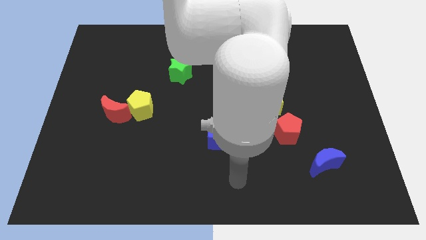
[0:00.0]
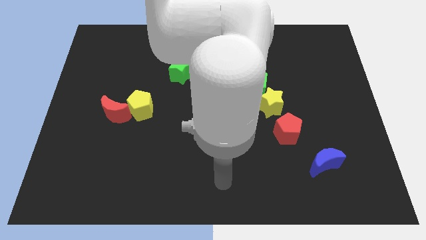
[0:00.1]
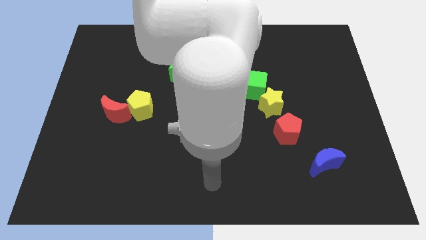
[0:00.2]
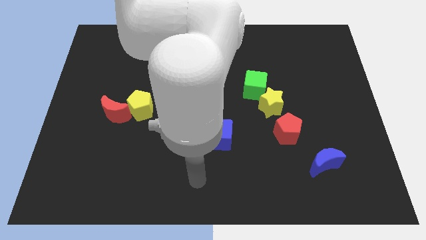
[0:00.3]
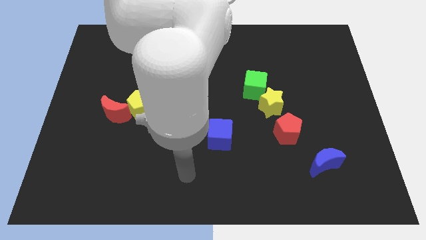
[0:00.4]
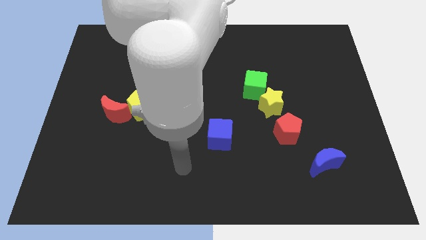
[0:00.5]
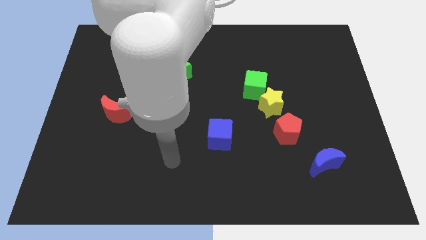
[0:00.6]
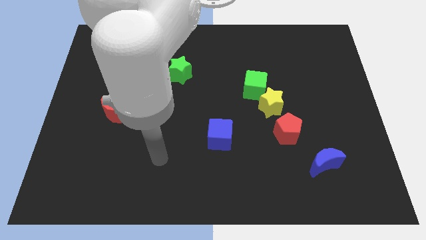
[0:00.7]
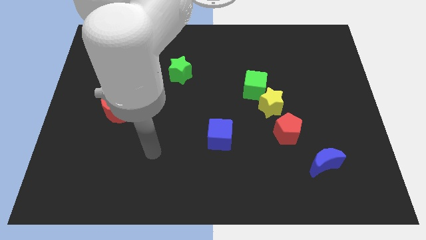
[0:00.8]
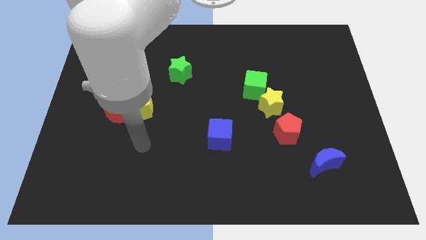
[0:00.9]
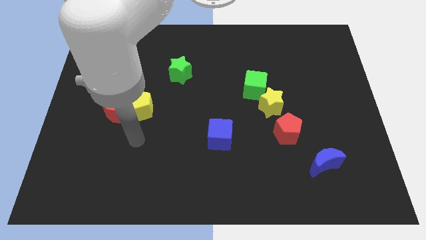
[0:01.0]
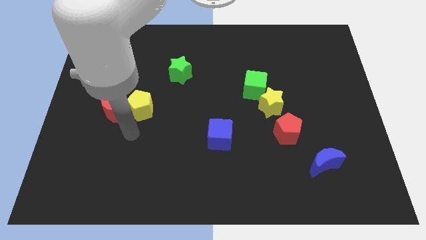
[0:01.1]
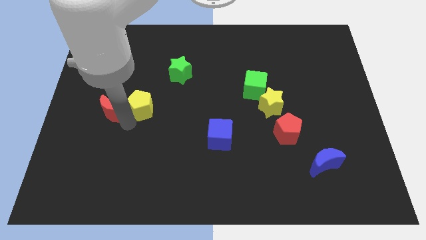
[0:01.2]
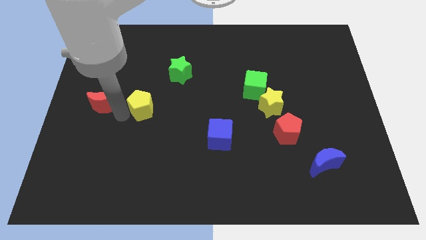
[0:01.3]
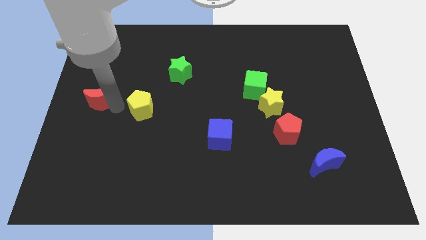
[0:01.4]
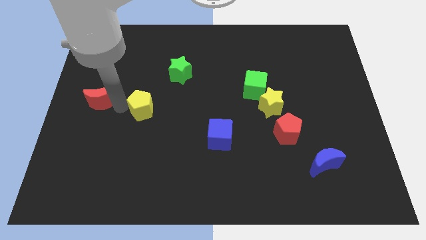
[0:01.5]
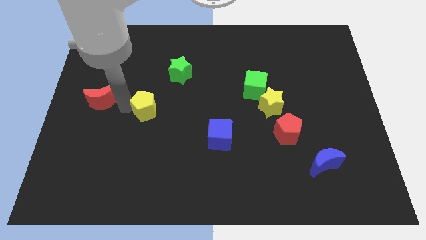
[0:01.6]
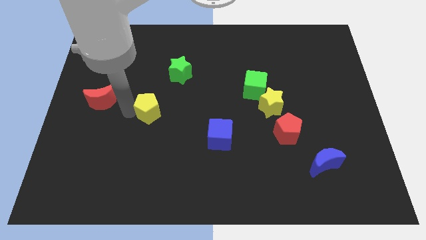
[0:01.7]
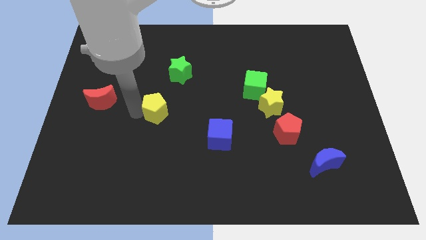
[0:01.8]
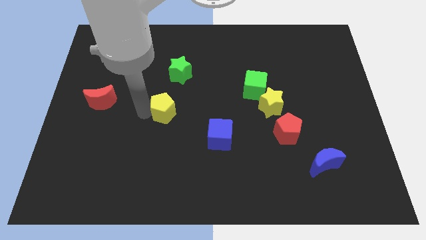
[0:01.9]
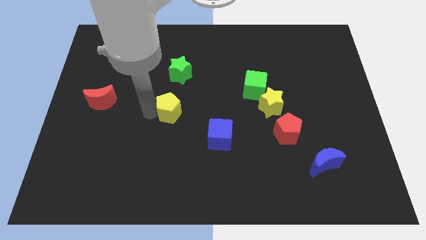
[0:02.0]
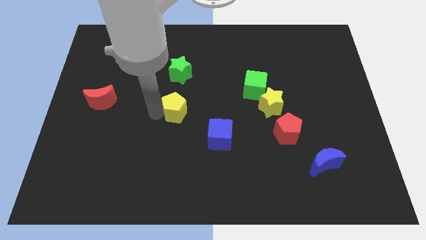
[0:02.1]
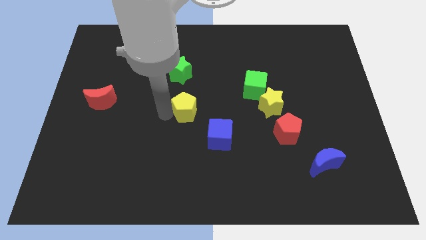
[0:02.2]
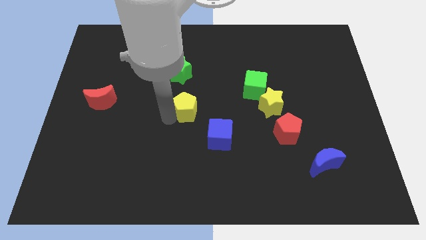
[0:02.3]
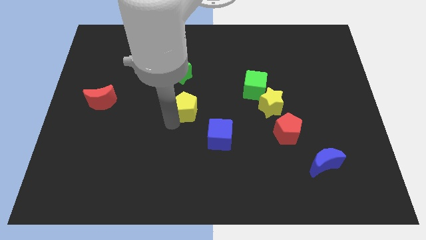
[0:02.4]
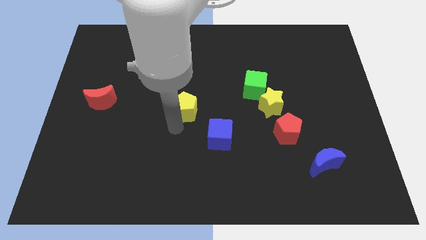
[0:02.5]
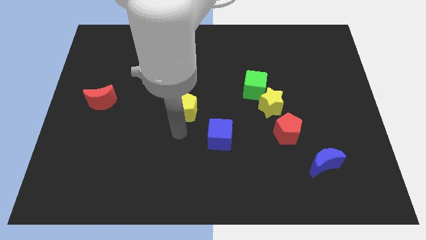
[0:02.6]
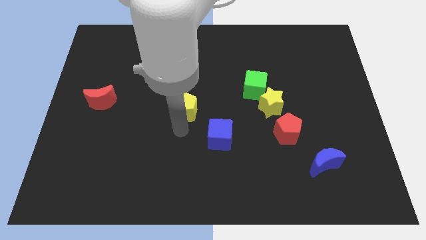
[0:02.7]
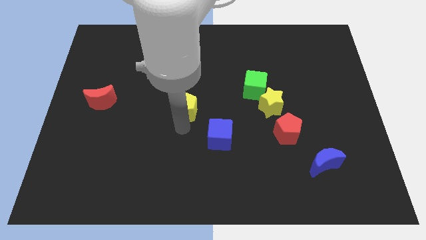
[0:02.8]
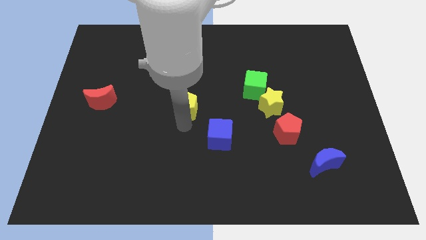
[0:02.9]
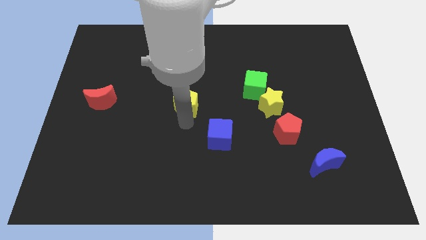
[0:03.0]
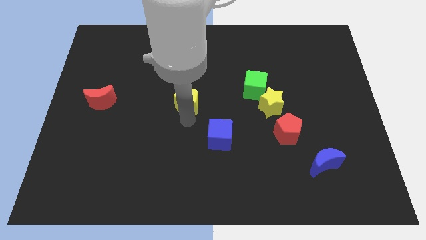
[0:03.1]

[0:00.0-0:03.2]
move the yellow pentagon slightly diagonally up and right

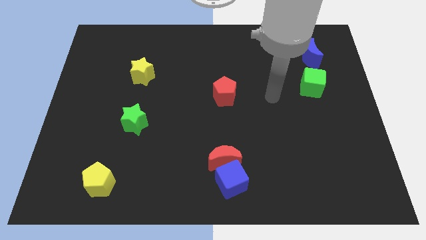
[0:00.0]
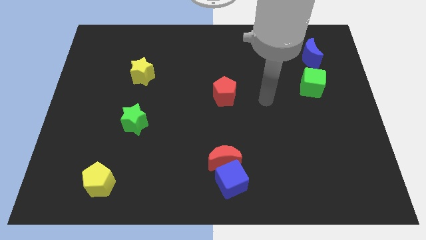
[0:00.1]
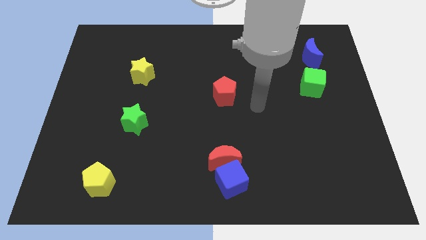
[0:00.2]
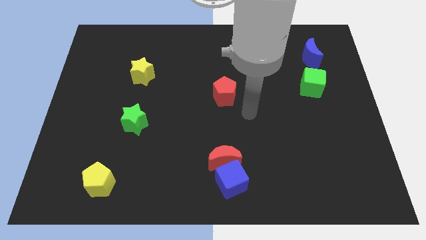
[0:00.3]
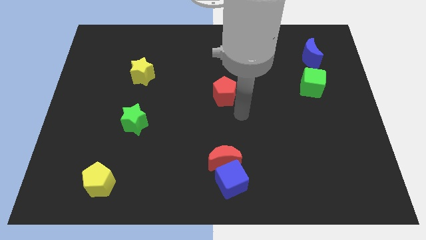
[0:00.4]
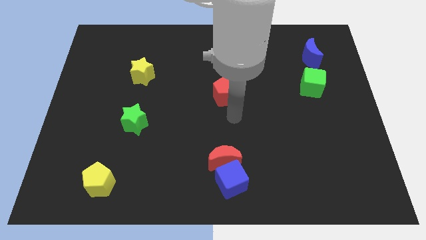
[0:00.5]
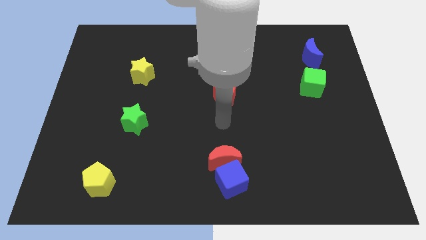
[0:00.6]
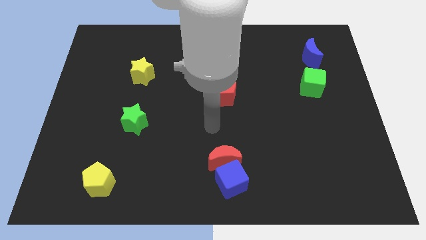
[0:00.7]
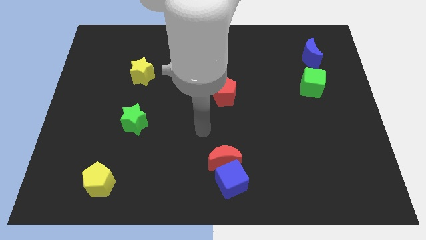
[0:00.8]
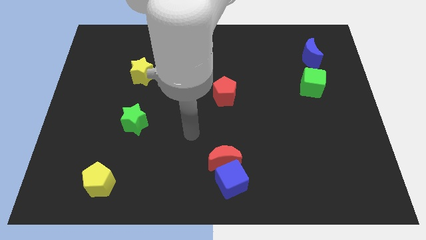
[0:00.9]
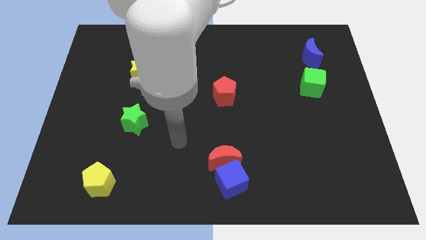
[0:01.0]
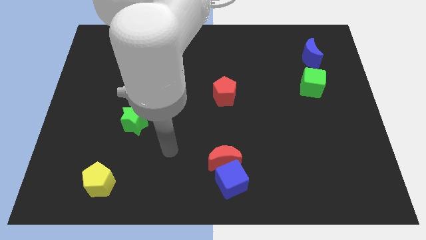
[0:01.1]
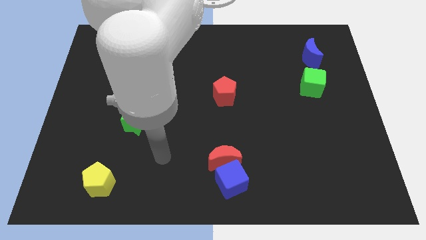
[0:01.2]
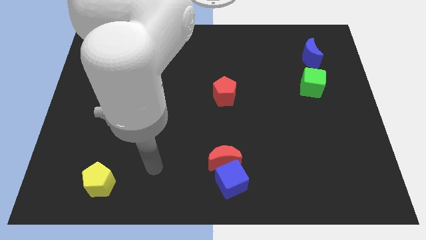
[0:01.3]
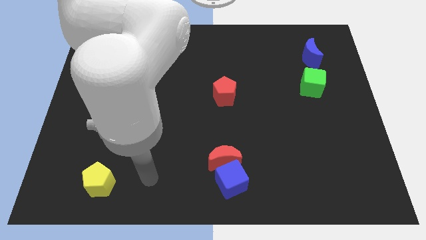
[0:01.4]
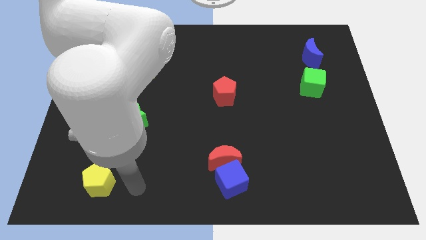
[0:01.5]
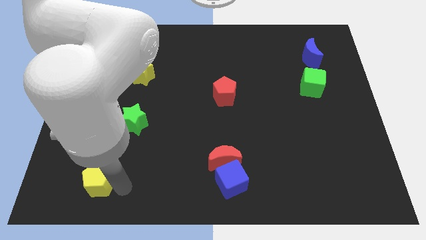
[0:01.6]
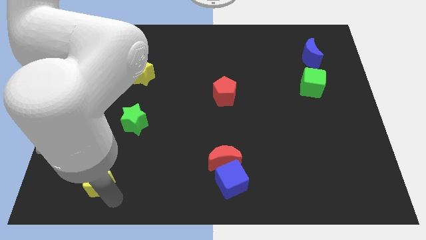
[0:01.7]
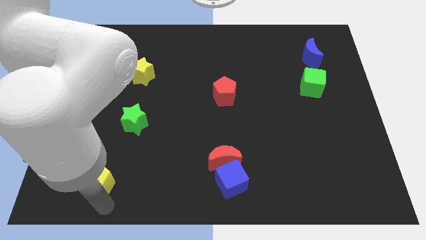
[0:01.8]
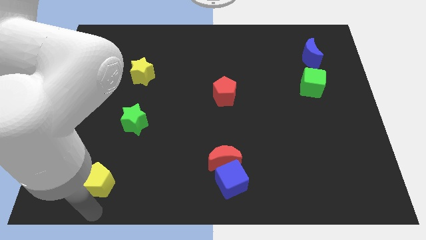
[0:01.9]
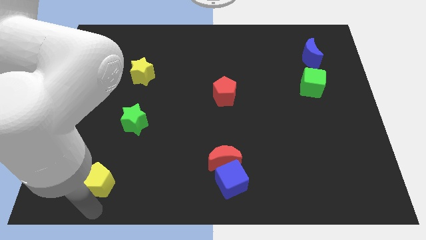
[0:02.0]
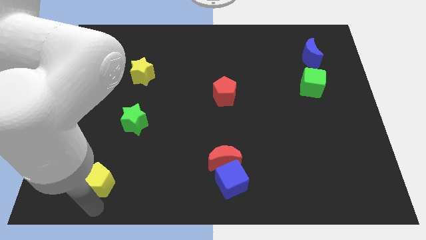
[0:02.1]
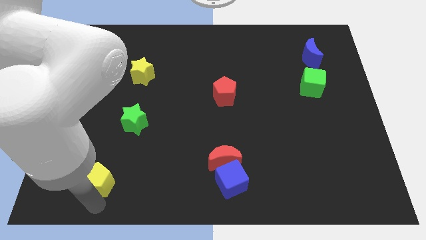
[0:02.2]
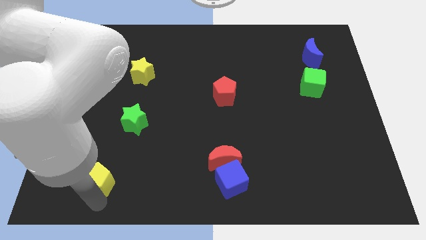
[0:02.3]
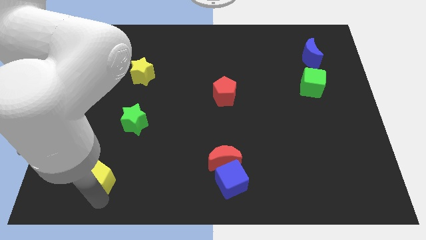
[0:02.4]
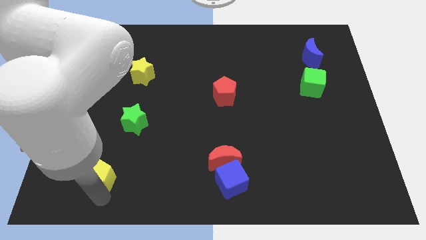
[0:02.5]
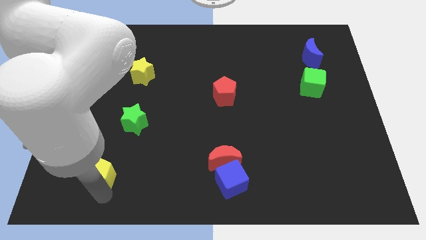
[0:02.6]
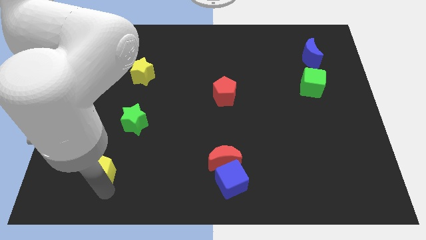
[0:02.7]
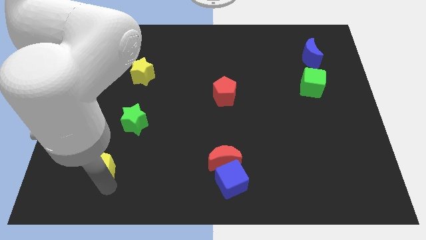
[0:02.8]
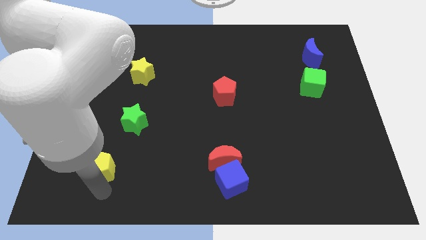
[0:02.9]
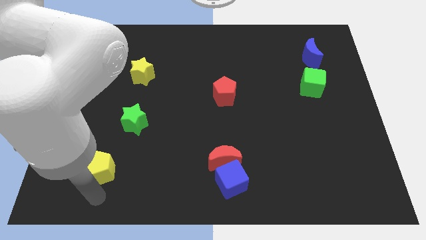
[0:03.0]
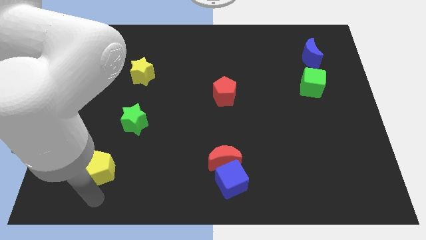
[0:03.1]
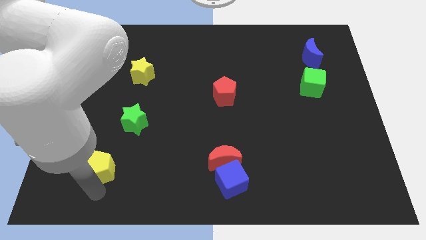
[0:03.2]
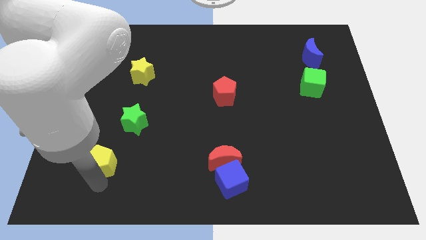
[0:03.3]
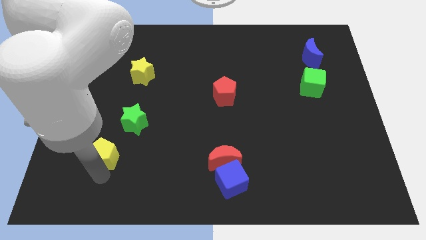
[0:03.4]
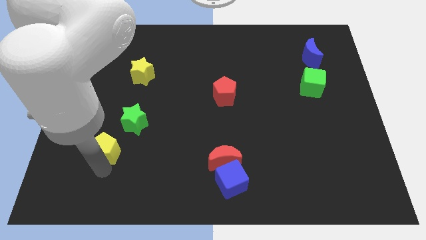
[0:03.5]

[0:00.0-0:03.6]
slightly move the yellow pentagon up

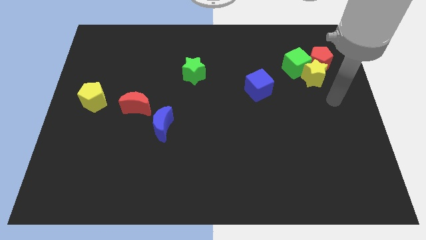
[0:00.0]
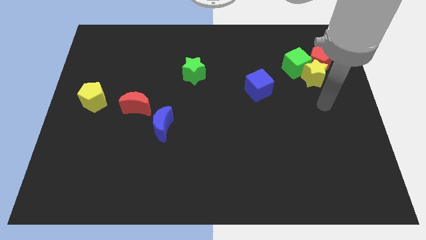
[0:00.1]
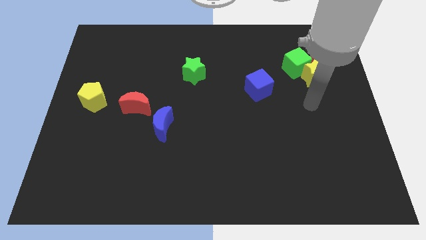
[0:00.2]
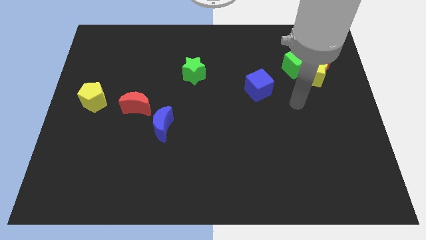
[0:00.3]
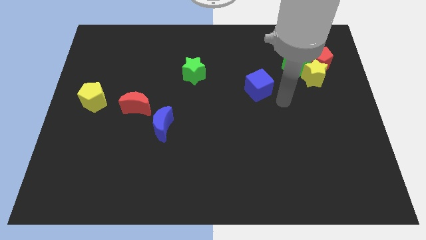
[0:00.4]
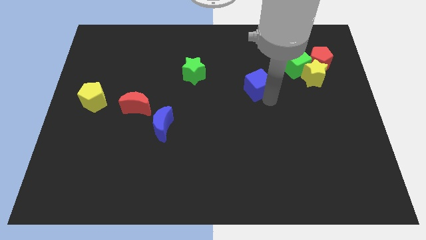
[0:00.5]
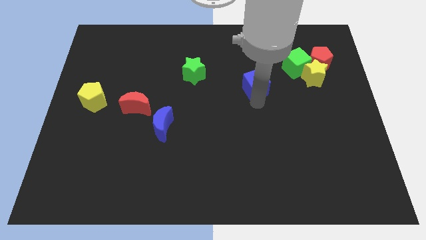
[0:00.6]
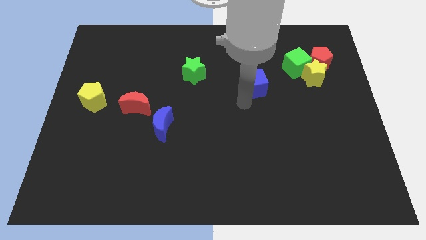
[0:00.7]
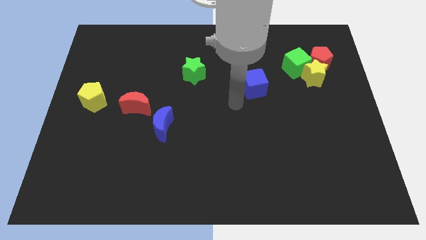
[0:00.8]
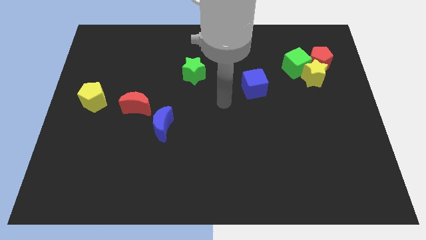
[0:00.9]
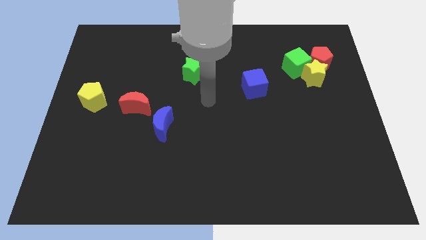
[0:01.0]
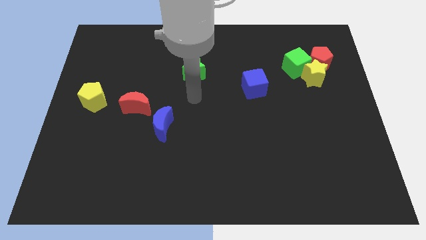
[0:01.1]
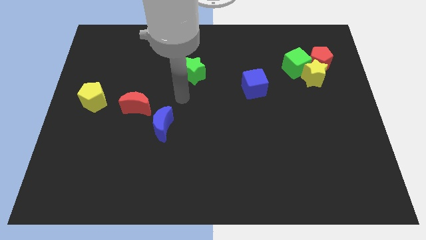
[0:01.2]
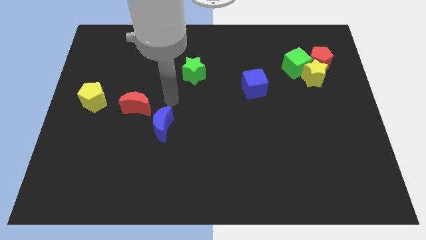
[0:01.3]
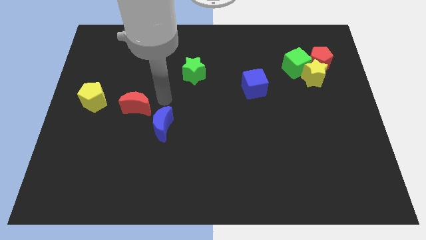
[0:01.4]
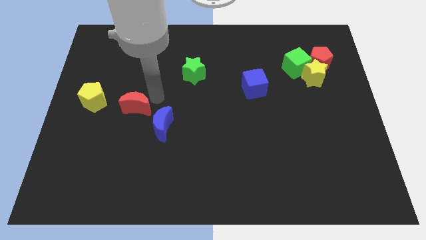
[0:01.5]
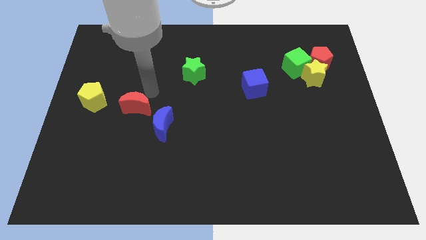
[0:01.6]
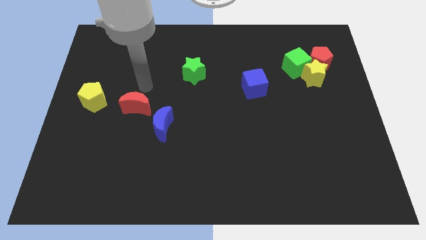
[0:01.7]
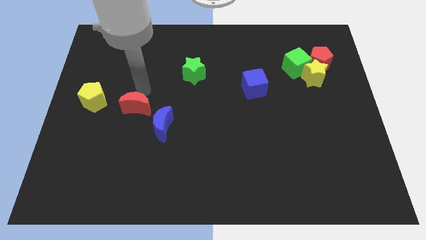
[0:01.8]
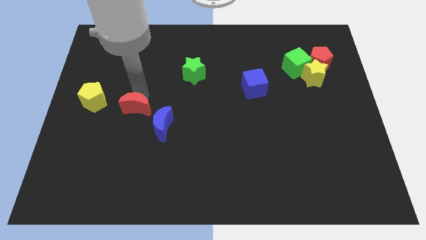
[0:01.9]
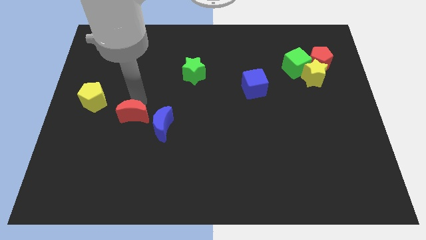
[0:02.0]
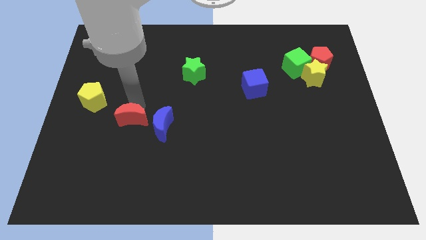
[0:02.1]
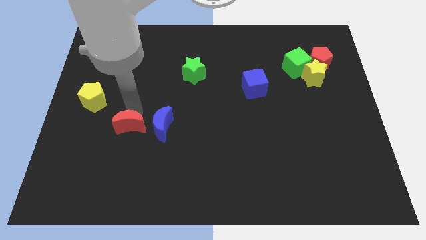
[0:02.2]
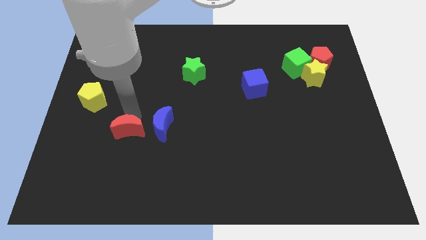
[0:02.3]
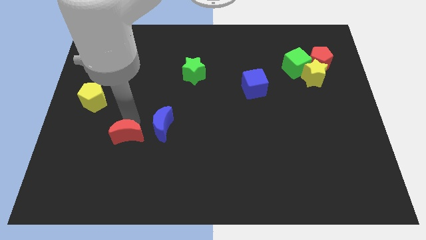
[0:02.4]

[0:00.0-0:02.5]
slide the red moon slightly downwards
